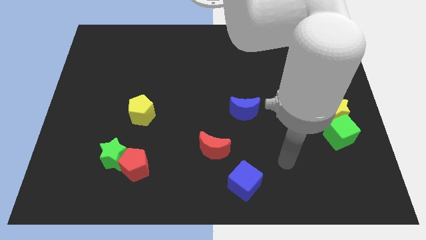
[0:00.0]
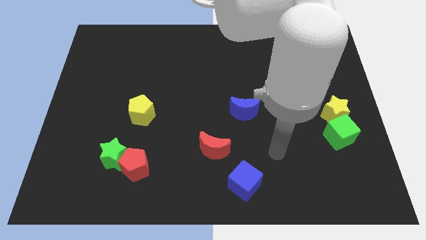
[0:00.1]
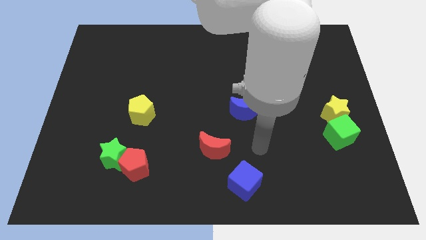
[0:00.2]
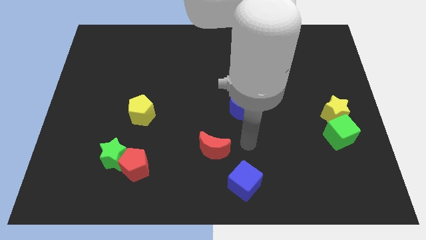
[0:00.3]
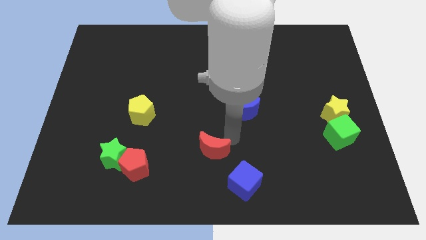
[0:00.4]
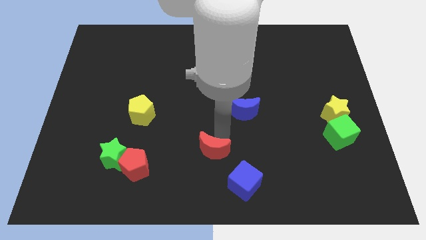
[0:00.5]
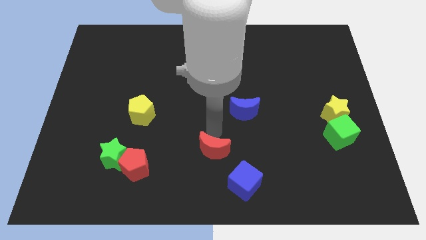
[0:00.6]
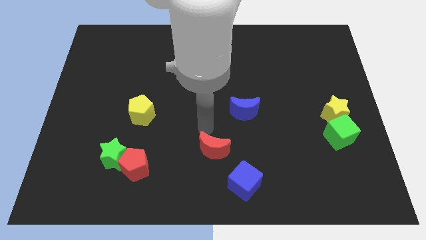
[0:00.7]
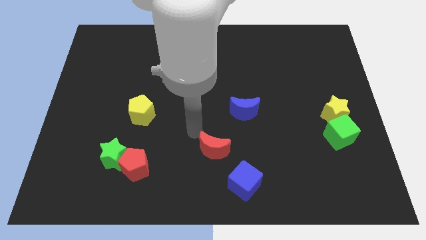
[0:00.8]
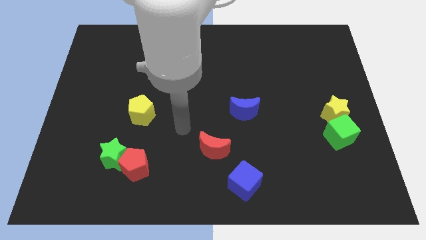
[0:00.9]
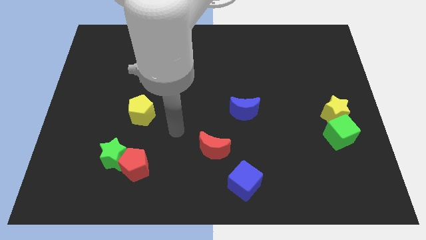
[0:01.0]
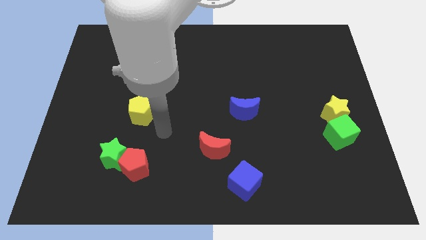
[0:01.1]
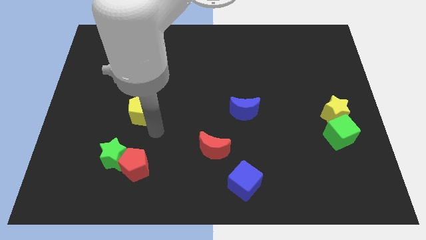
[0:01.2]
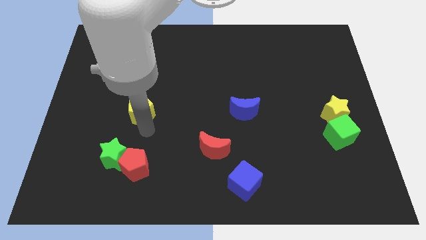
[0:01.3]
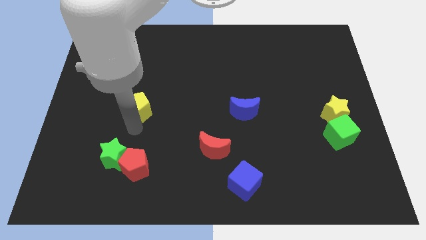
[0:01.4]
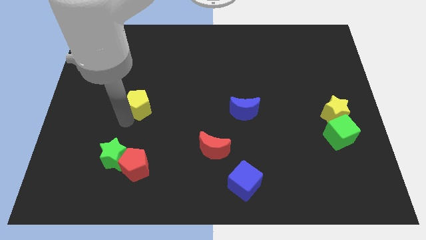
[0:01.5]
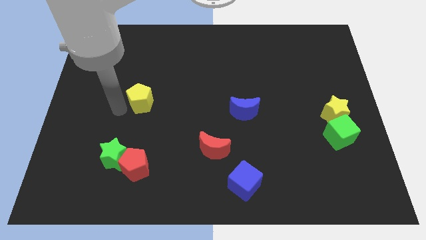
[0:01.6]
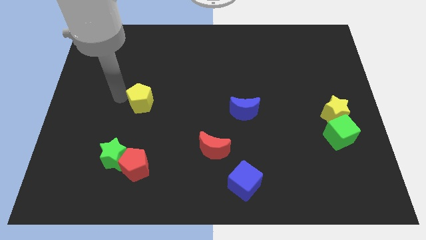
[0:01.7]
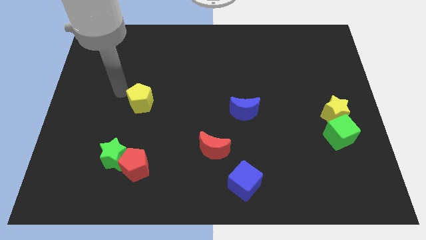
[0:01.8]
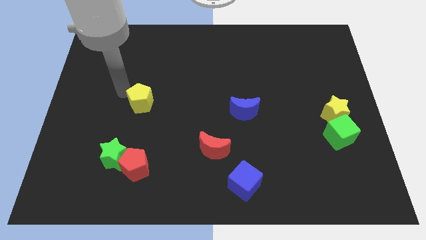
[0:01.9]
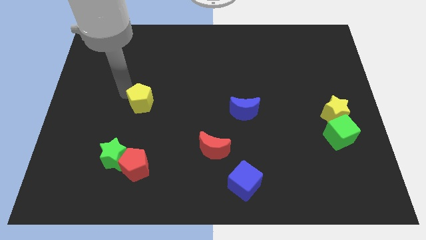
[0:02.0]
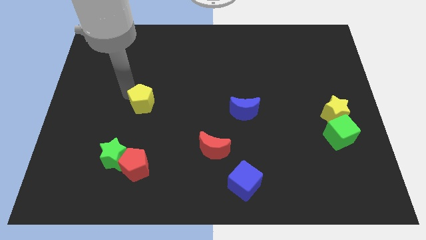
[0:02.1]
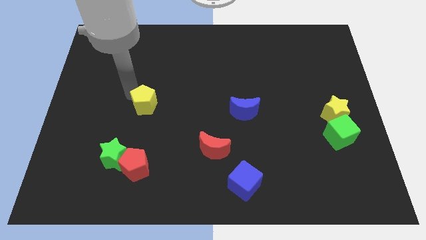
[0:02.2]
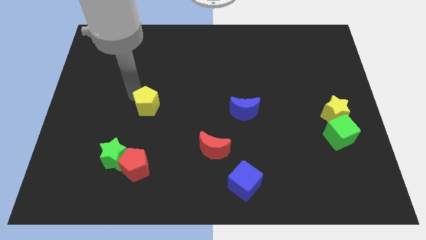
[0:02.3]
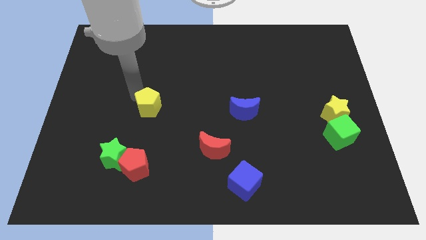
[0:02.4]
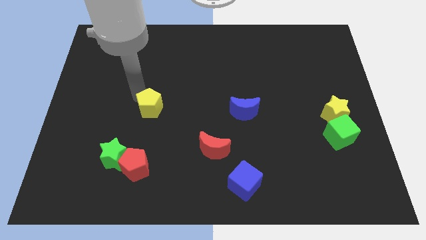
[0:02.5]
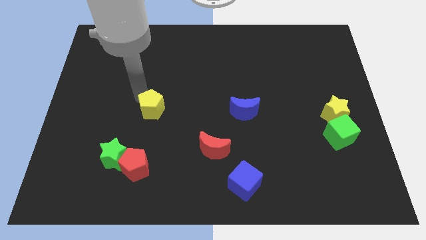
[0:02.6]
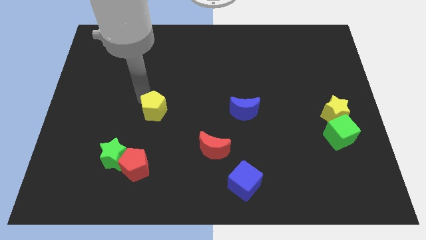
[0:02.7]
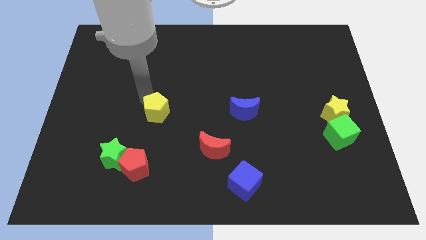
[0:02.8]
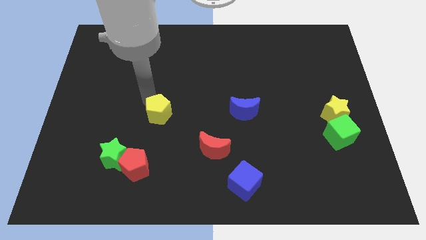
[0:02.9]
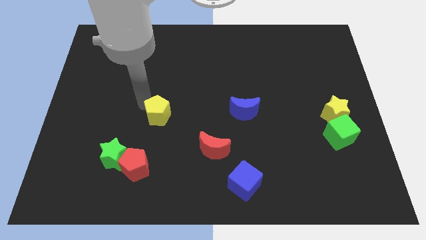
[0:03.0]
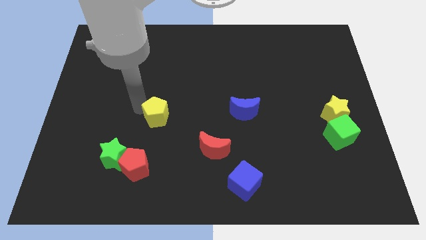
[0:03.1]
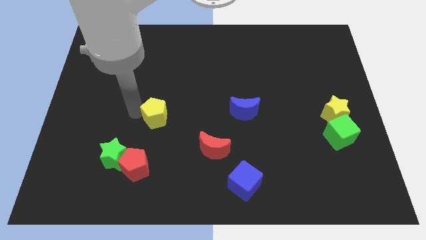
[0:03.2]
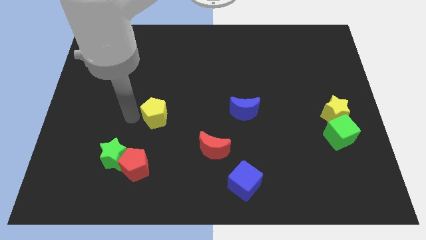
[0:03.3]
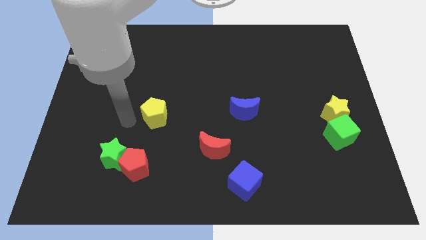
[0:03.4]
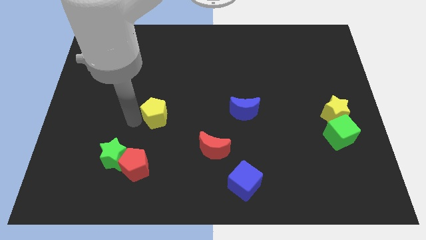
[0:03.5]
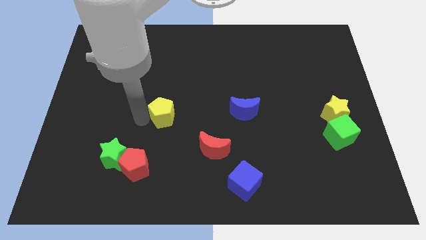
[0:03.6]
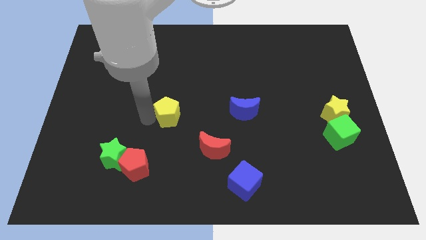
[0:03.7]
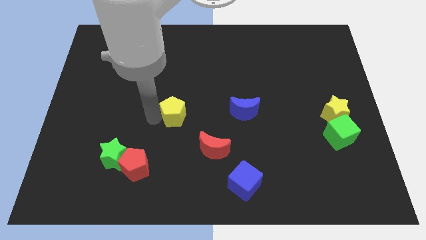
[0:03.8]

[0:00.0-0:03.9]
move the yellow pentagon a little to the right

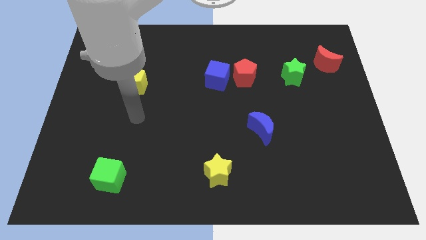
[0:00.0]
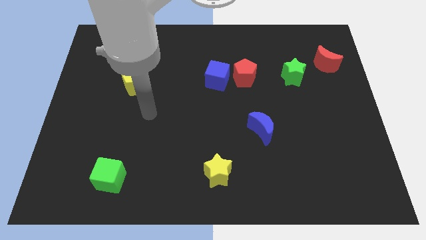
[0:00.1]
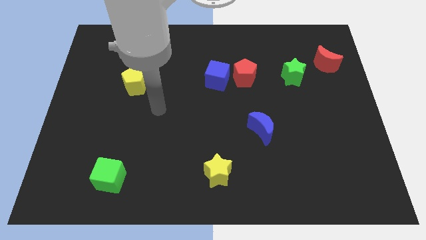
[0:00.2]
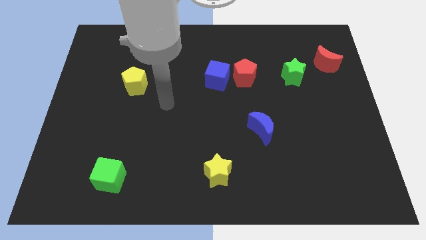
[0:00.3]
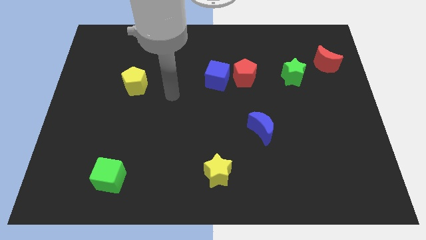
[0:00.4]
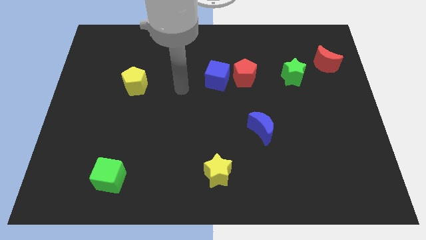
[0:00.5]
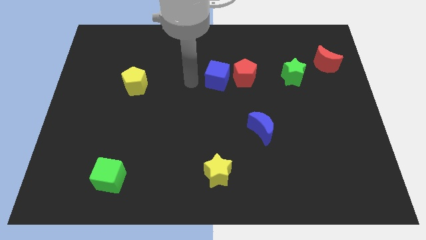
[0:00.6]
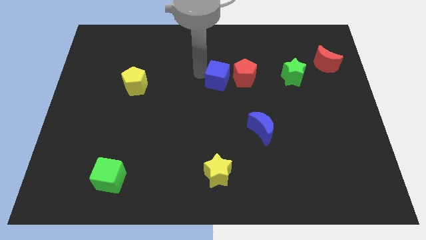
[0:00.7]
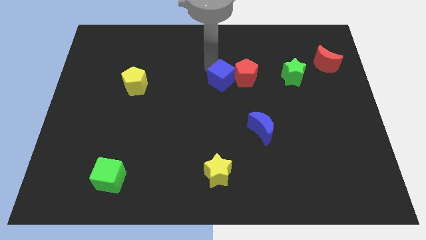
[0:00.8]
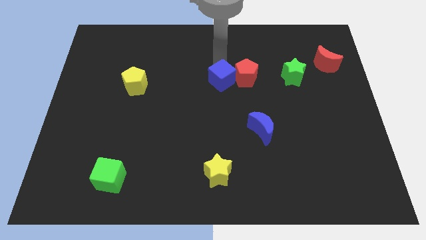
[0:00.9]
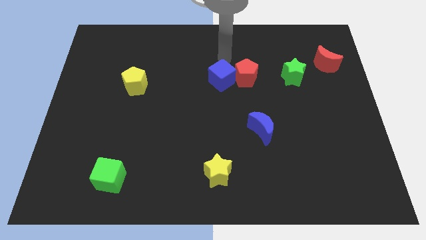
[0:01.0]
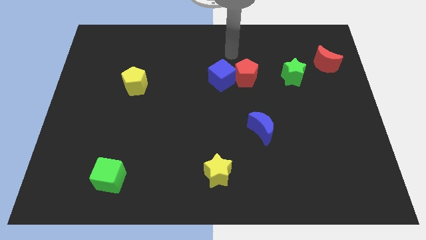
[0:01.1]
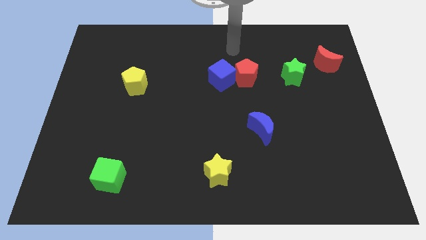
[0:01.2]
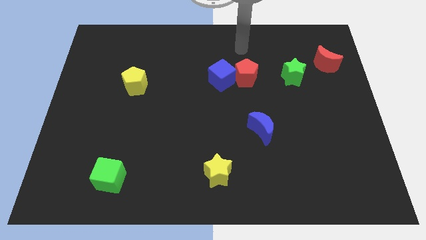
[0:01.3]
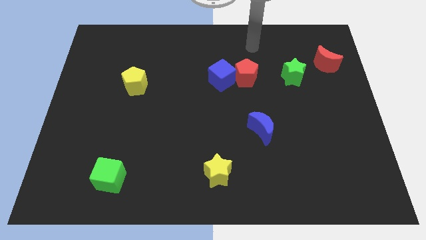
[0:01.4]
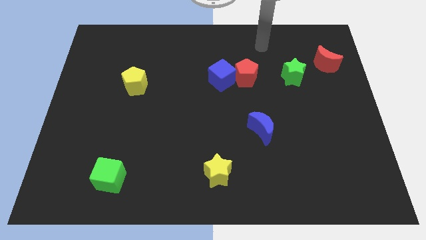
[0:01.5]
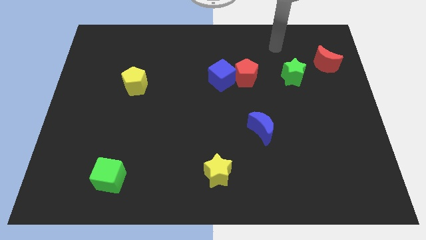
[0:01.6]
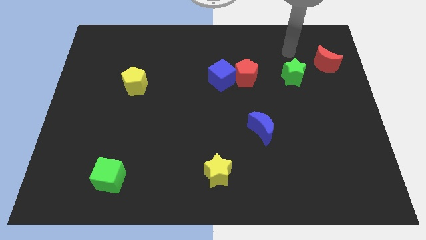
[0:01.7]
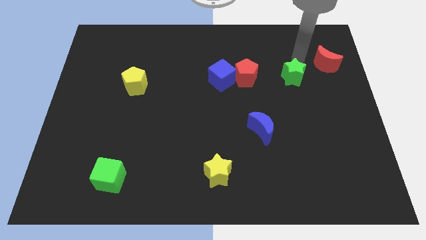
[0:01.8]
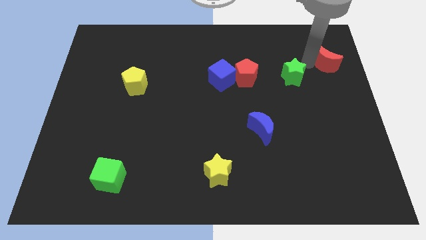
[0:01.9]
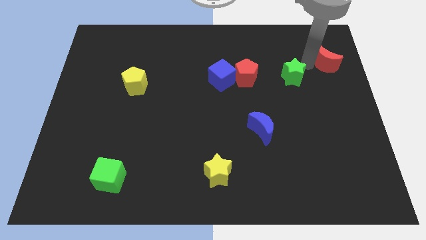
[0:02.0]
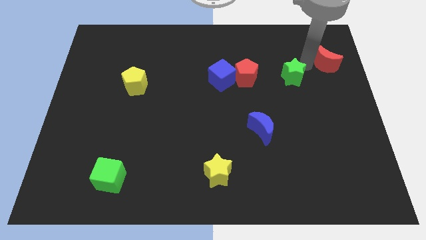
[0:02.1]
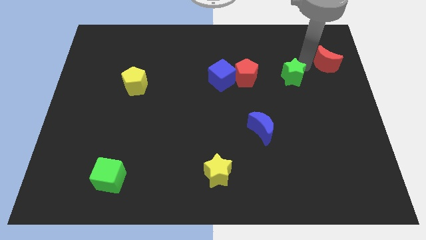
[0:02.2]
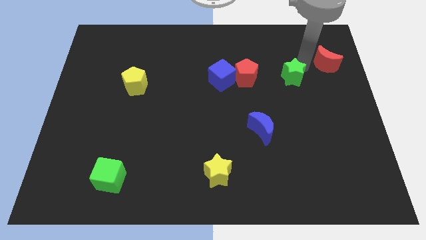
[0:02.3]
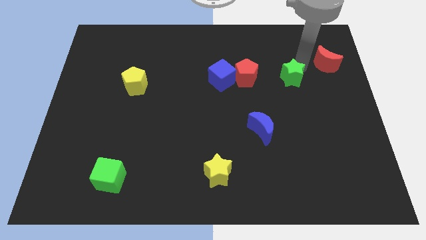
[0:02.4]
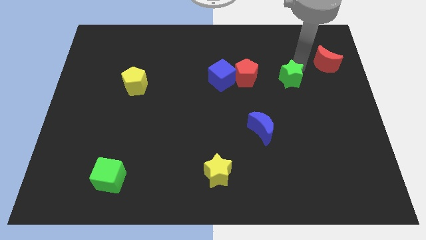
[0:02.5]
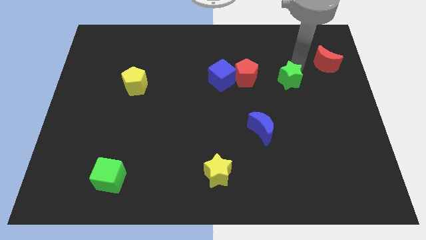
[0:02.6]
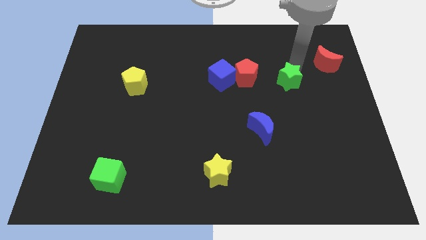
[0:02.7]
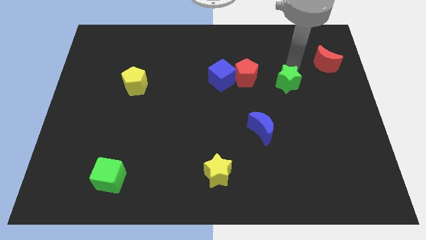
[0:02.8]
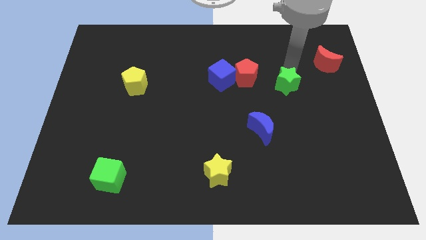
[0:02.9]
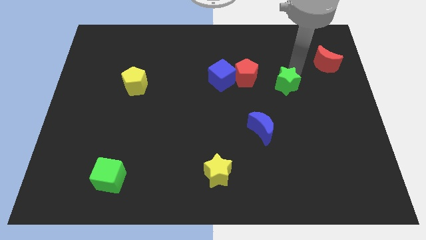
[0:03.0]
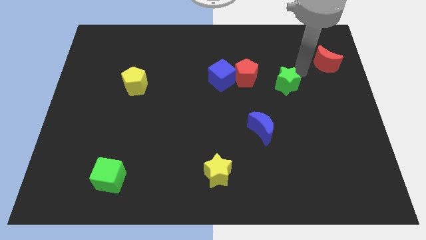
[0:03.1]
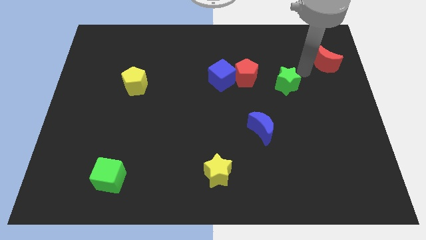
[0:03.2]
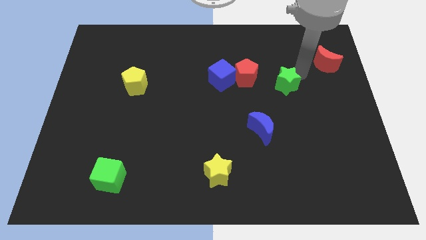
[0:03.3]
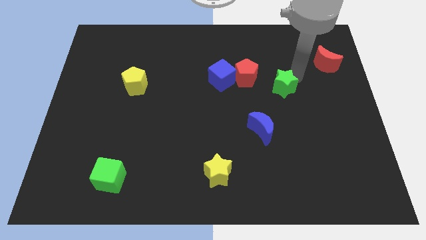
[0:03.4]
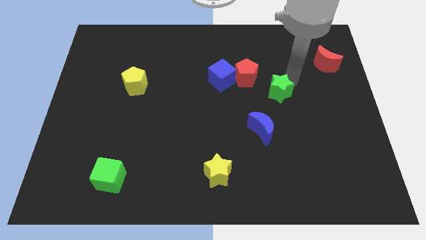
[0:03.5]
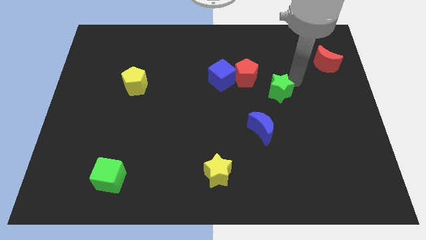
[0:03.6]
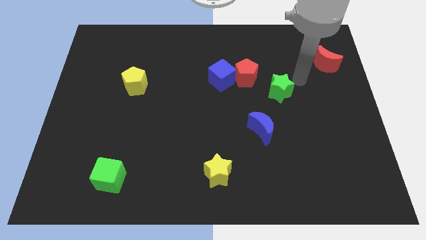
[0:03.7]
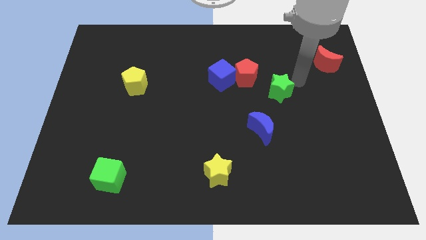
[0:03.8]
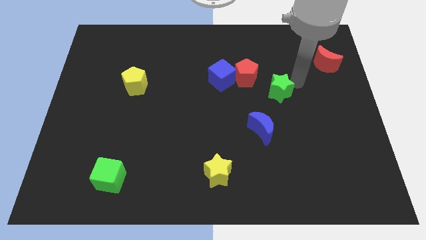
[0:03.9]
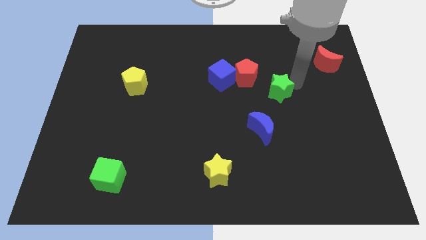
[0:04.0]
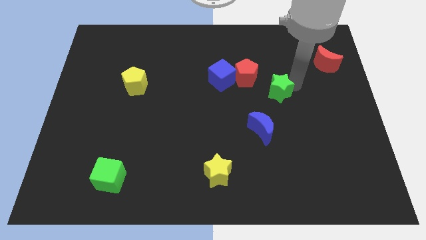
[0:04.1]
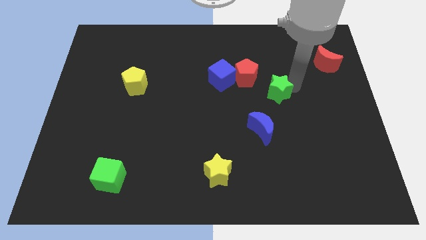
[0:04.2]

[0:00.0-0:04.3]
move the green star a little diagonally down and to the left

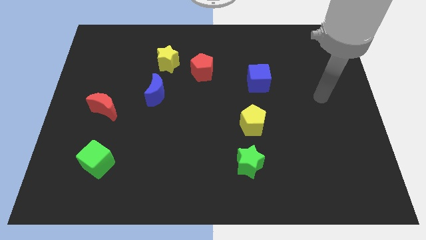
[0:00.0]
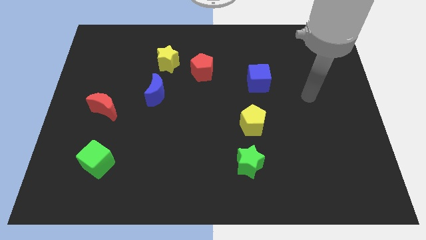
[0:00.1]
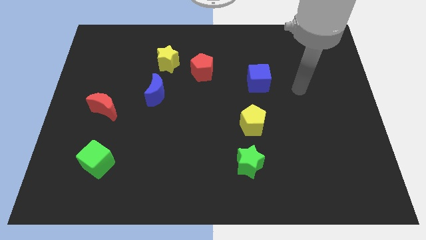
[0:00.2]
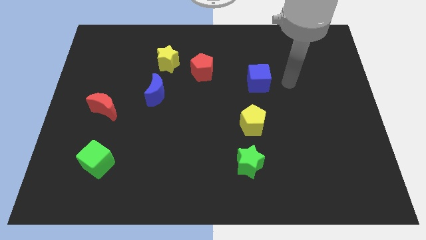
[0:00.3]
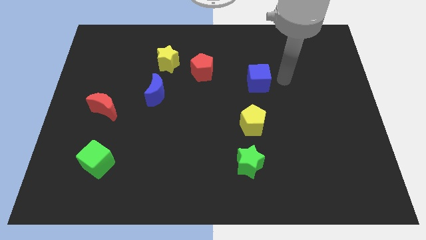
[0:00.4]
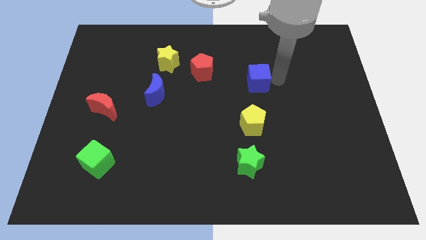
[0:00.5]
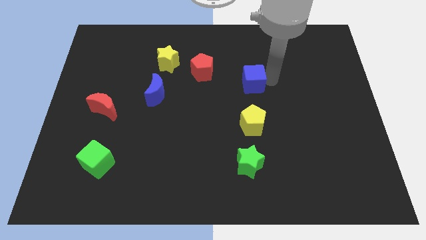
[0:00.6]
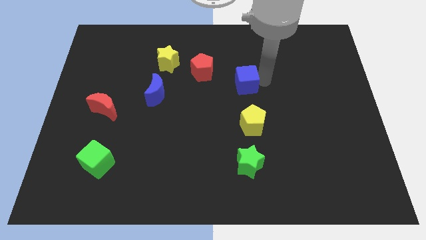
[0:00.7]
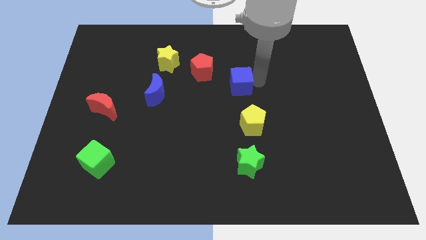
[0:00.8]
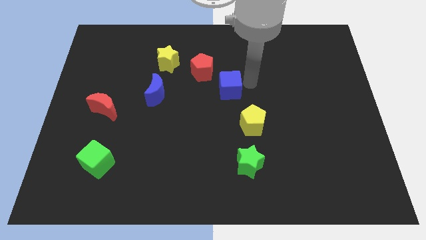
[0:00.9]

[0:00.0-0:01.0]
slightly move the blue cube left
